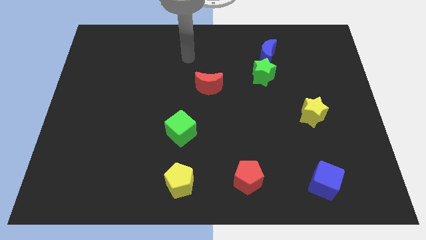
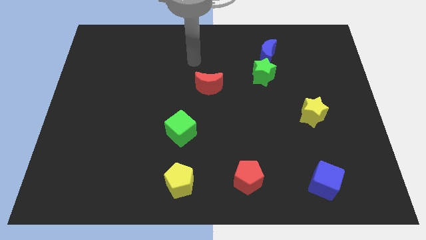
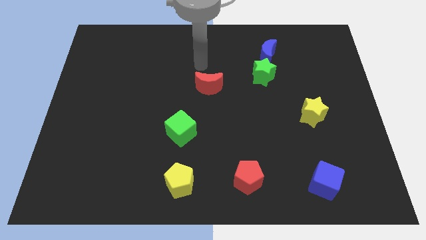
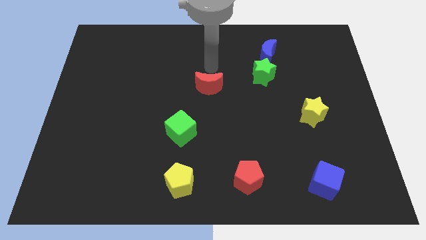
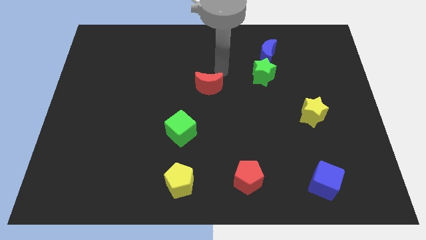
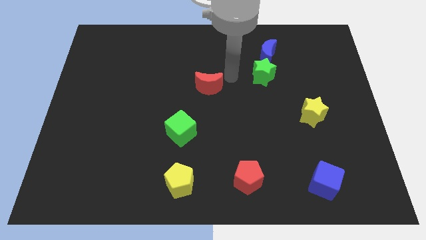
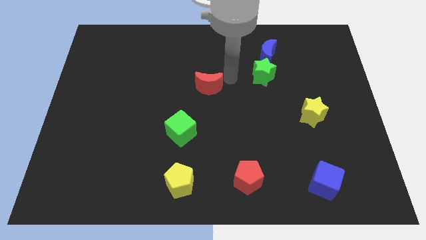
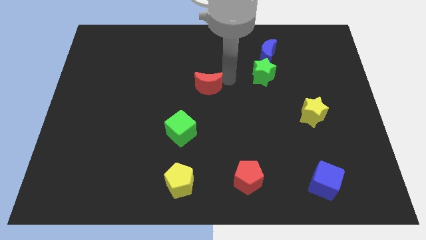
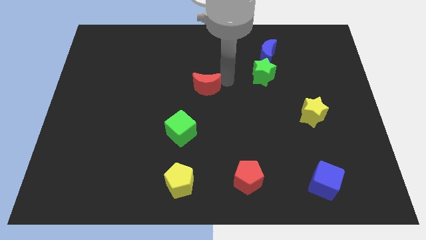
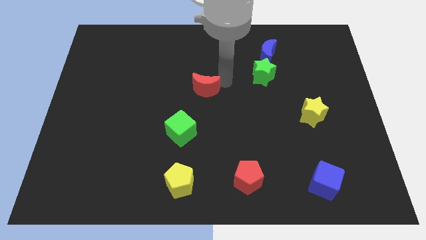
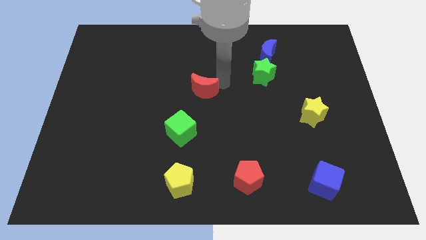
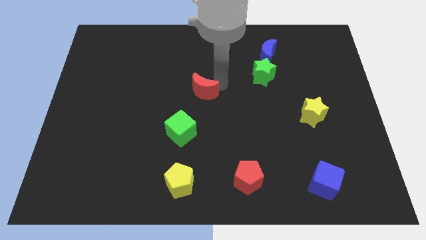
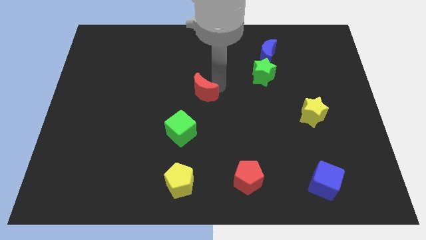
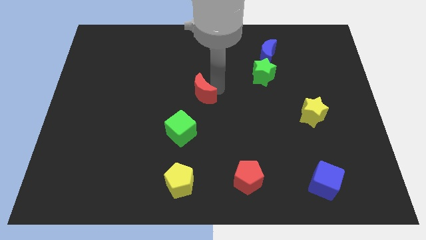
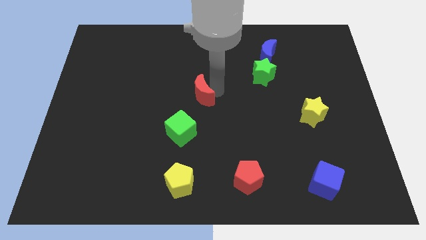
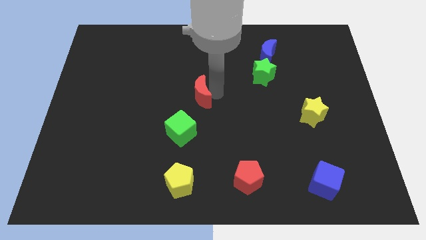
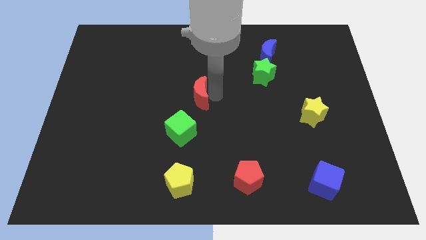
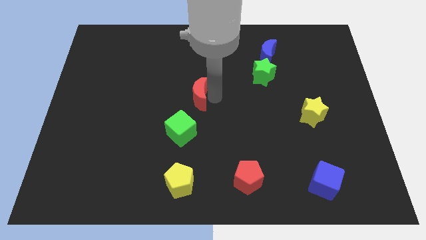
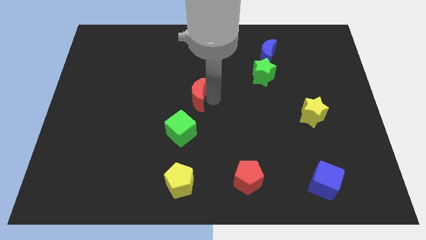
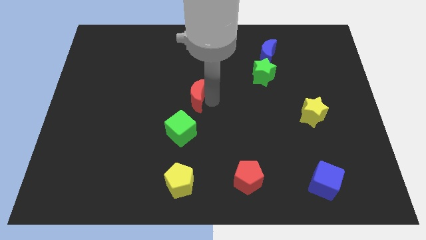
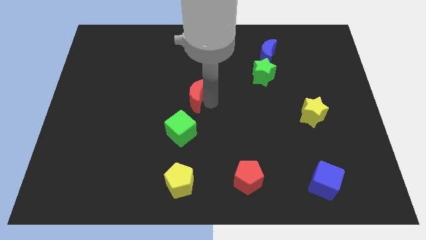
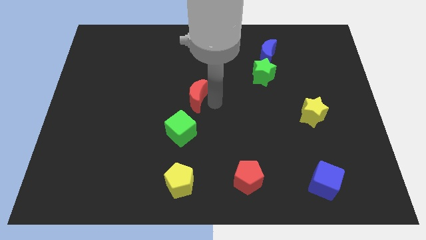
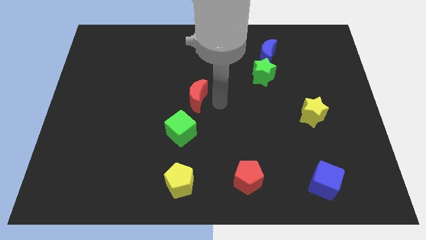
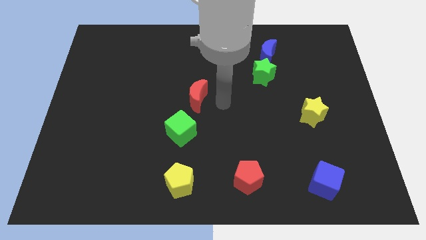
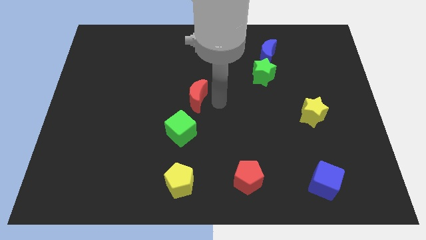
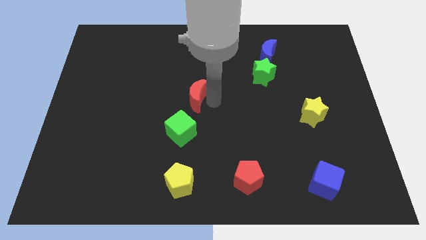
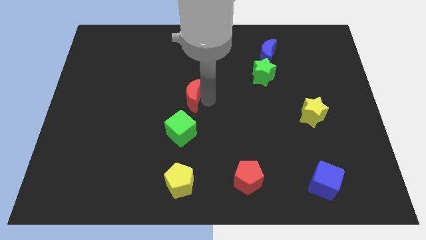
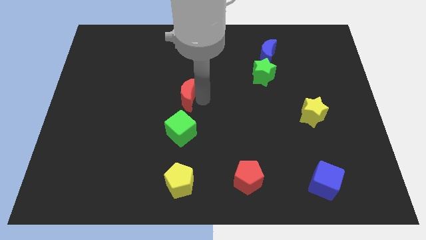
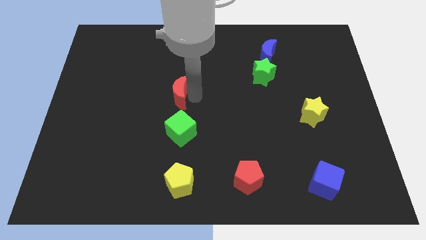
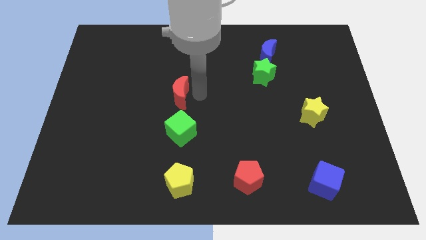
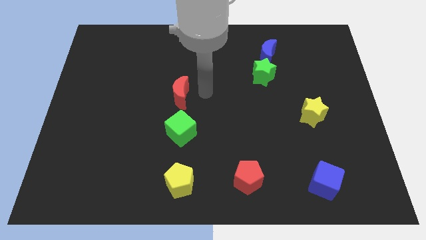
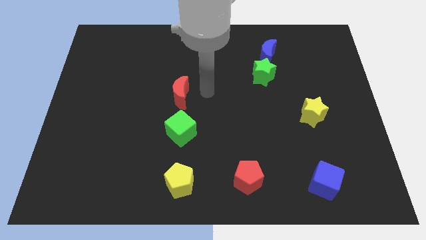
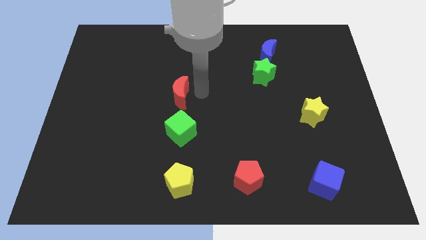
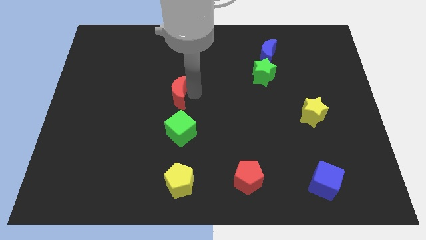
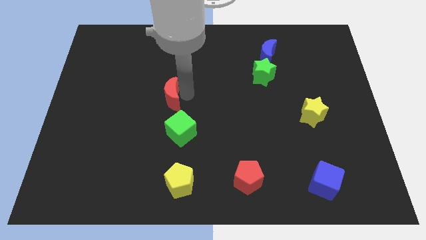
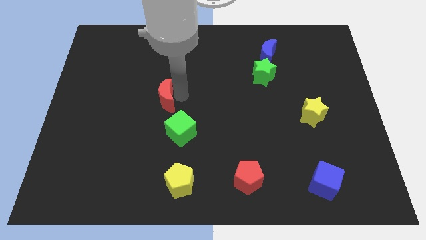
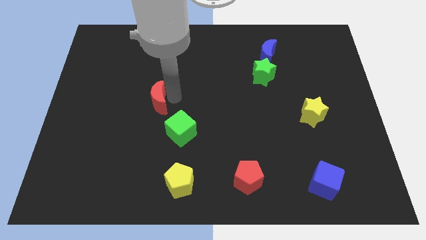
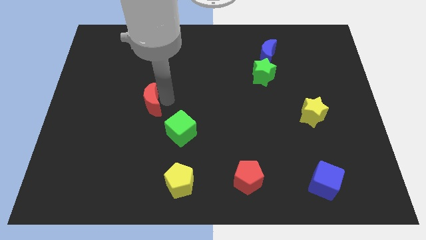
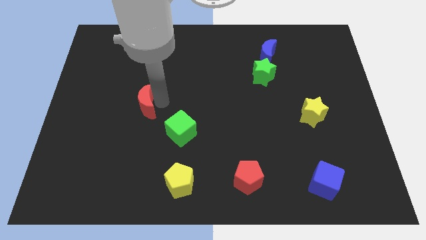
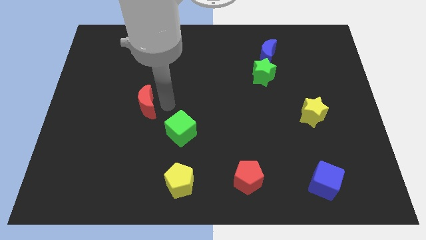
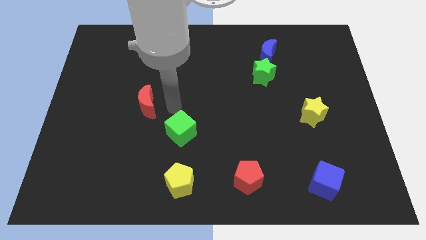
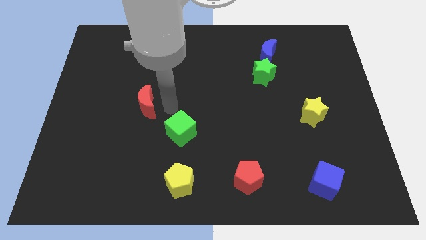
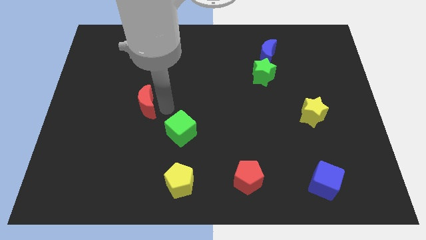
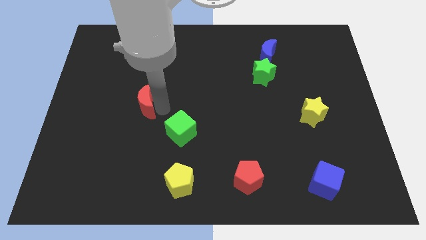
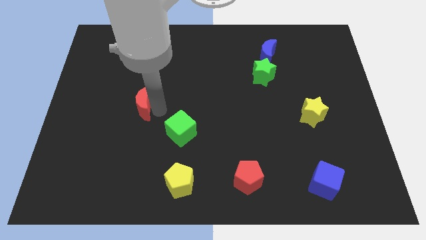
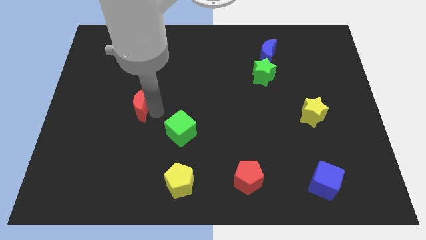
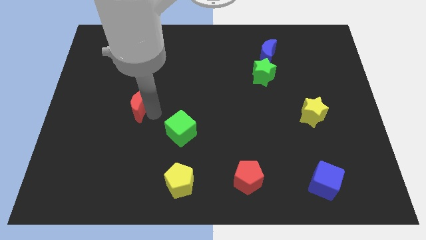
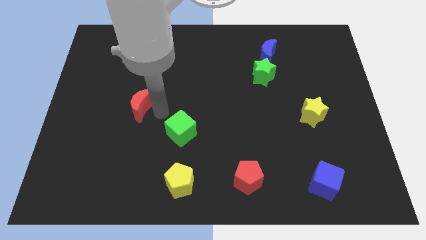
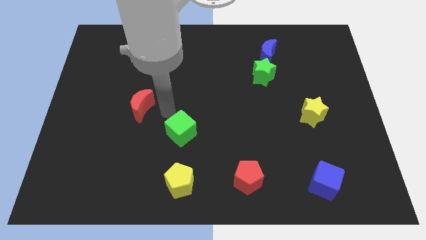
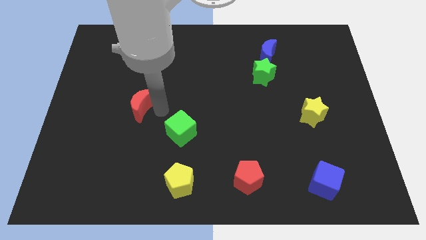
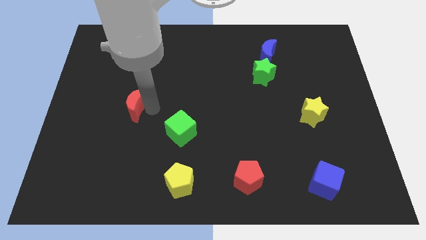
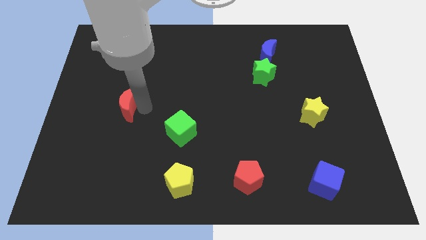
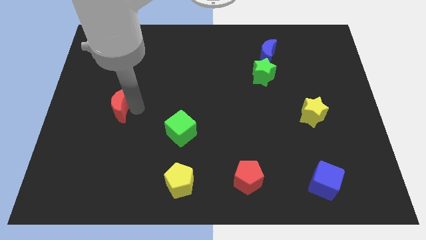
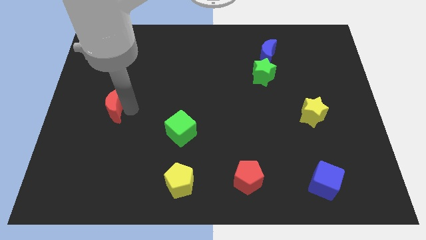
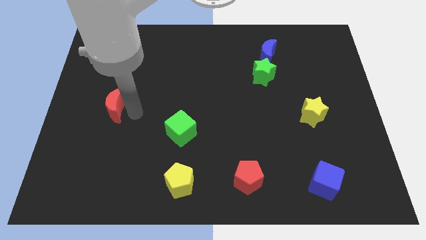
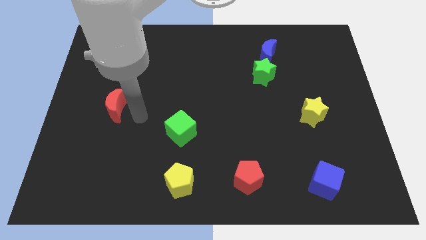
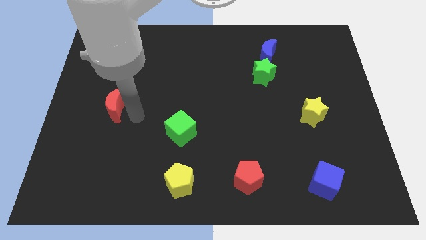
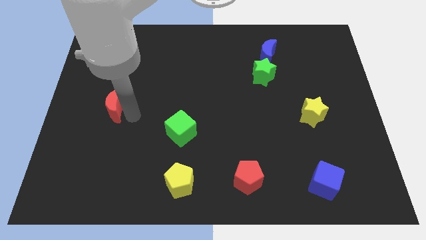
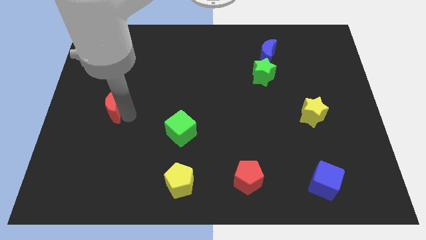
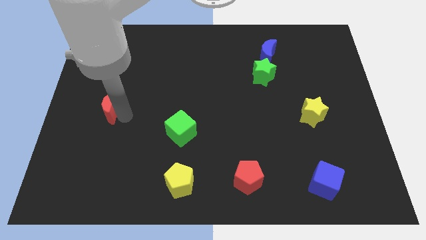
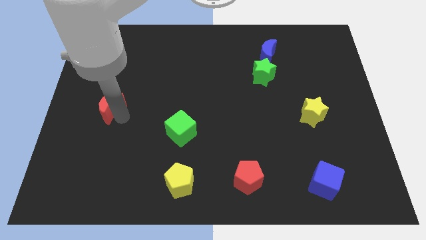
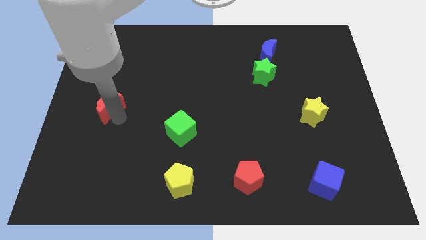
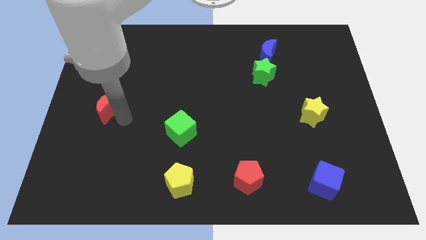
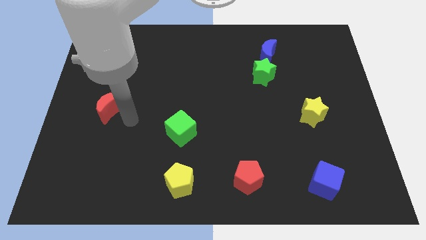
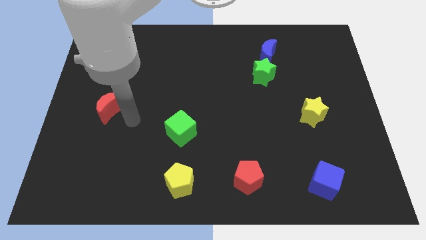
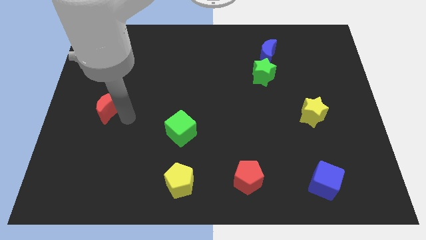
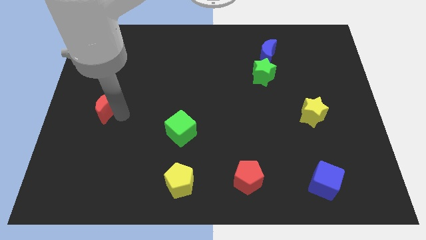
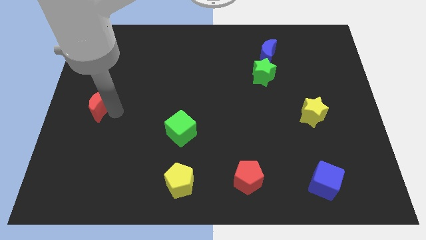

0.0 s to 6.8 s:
slide the red moon to the center left
